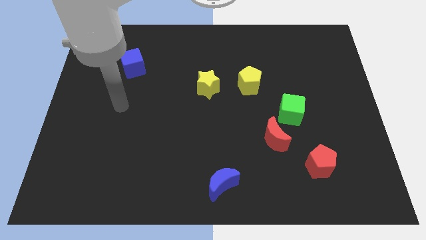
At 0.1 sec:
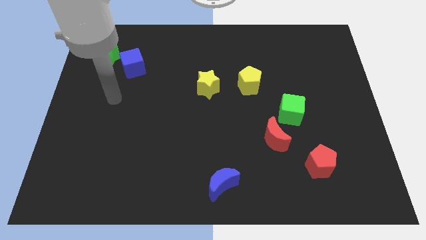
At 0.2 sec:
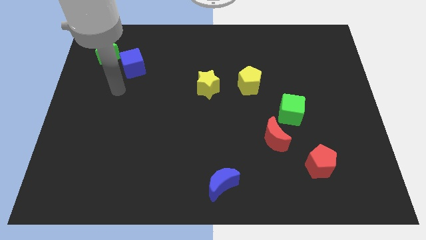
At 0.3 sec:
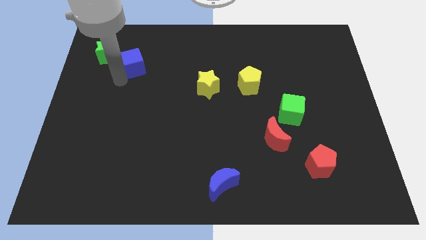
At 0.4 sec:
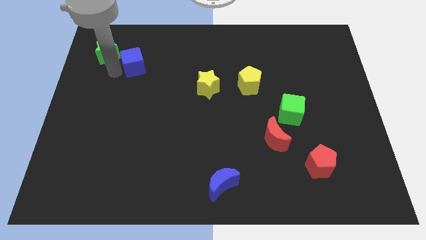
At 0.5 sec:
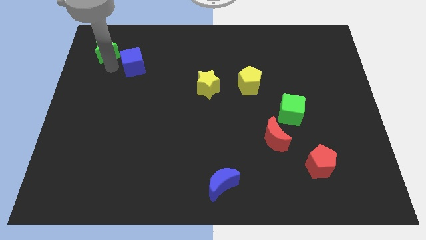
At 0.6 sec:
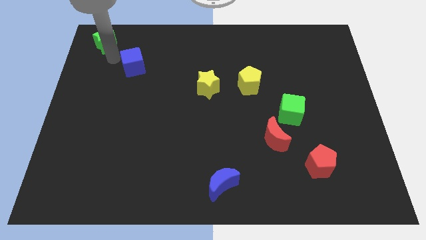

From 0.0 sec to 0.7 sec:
pull the blue cube apart from the green star

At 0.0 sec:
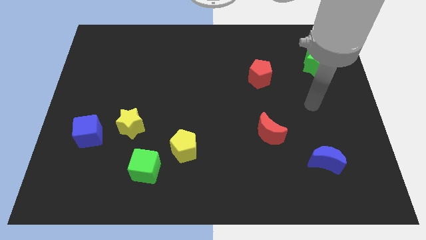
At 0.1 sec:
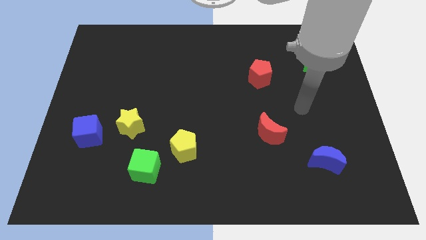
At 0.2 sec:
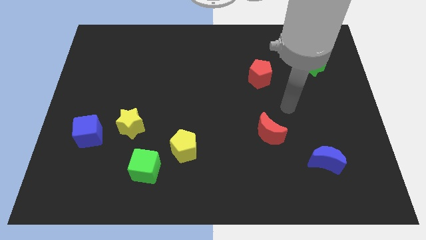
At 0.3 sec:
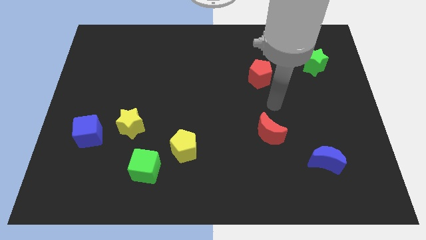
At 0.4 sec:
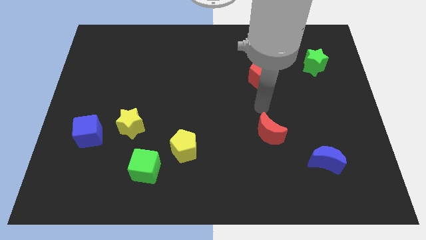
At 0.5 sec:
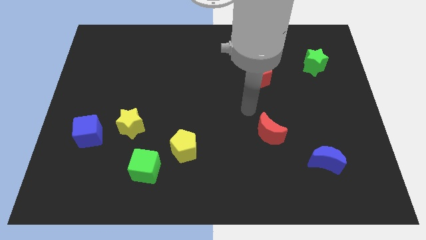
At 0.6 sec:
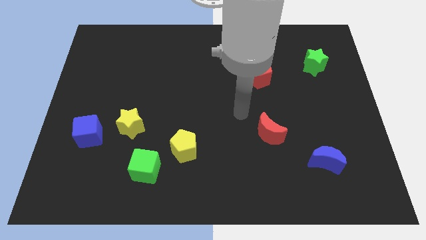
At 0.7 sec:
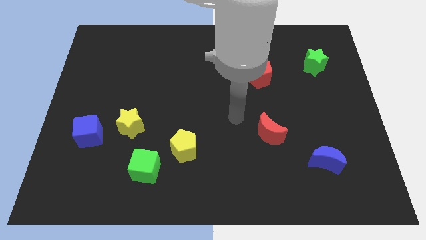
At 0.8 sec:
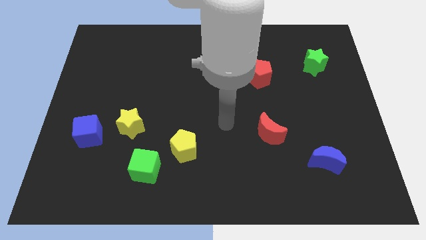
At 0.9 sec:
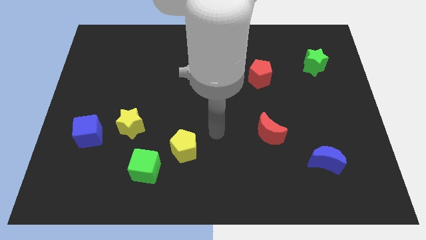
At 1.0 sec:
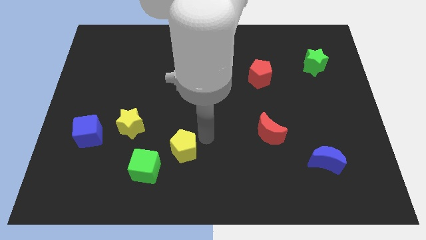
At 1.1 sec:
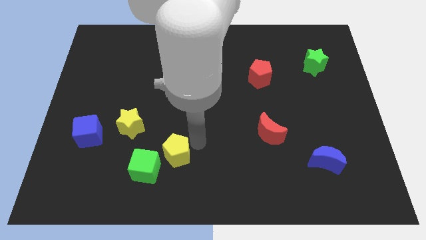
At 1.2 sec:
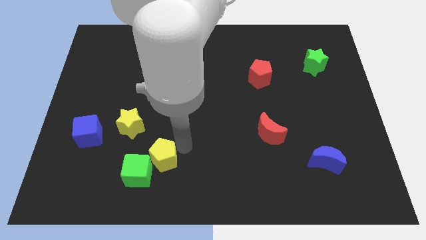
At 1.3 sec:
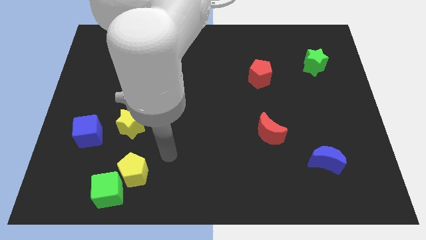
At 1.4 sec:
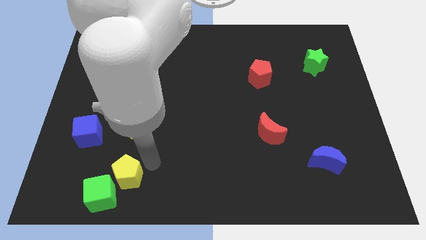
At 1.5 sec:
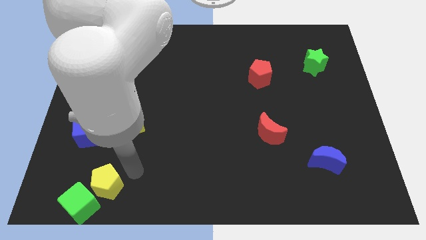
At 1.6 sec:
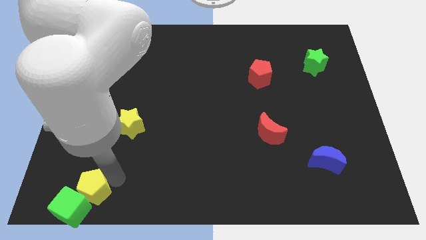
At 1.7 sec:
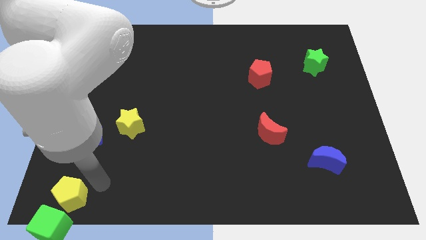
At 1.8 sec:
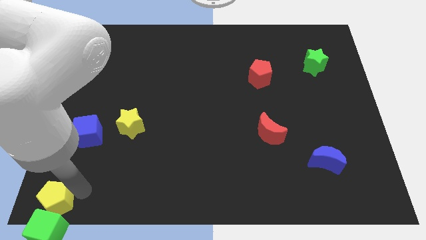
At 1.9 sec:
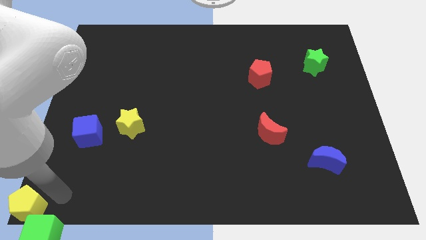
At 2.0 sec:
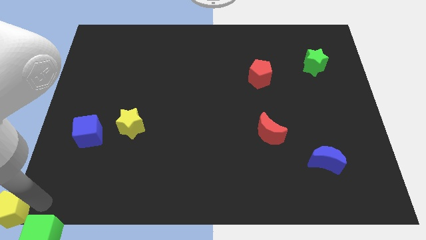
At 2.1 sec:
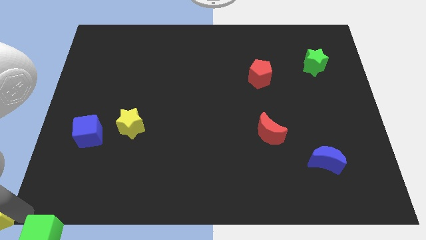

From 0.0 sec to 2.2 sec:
move the green cube away from the yellow pentagon

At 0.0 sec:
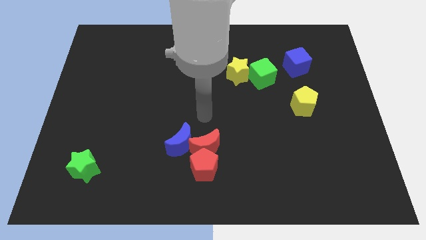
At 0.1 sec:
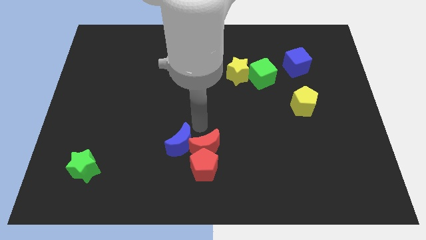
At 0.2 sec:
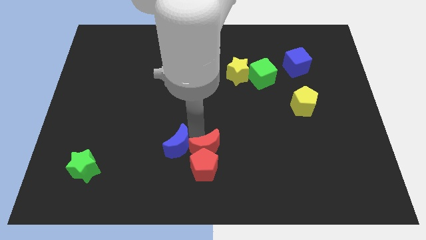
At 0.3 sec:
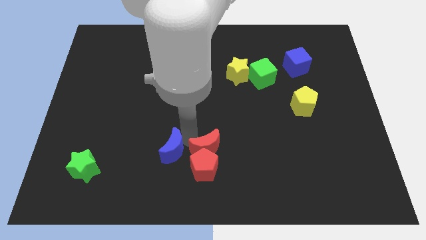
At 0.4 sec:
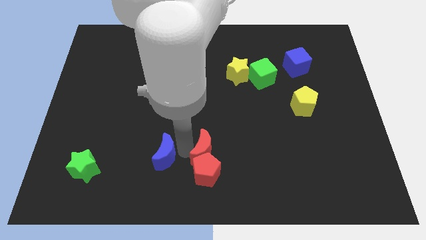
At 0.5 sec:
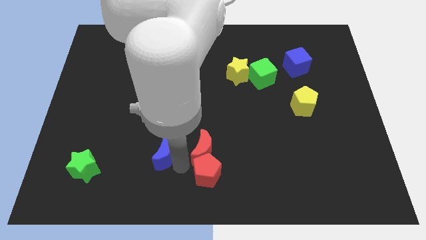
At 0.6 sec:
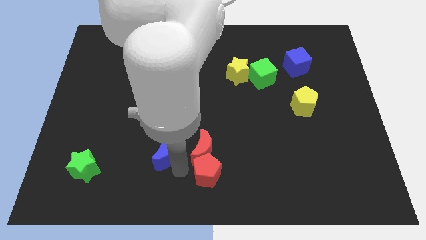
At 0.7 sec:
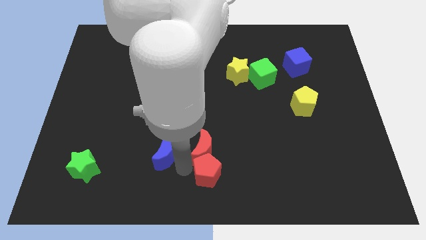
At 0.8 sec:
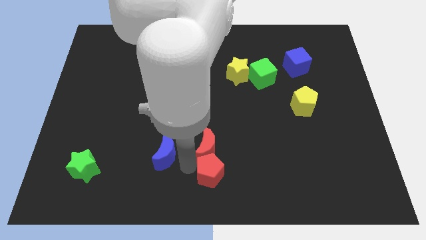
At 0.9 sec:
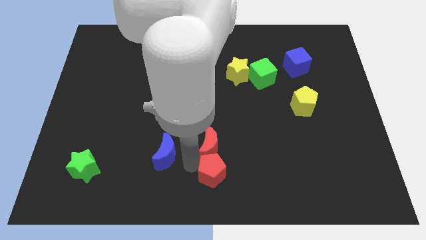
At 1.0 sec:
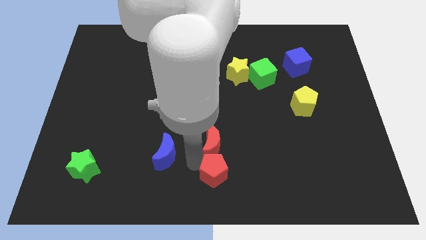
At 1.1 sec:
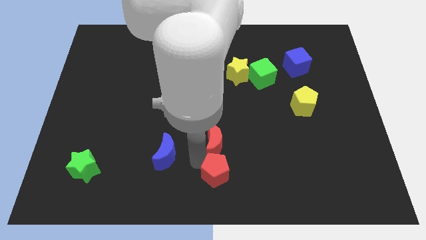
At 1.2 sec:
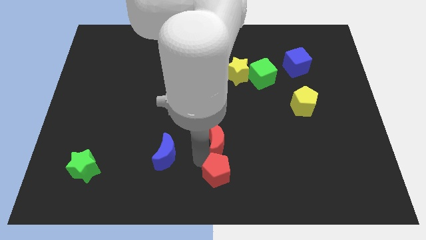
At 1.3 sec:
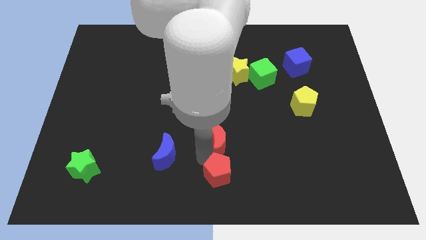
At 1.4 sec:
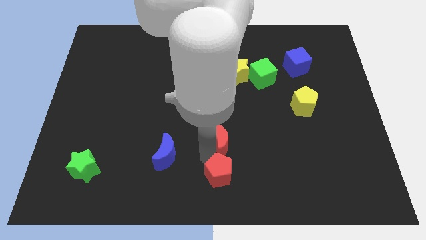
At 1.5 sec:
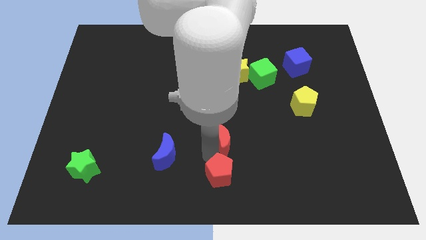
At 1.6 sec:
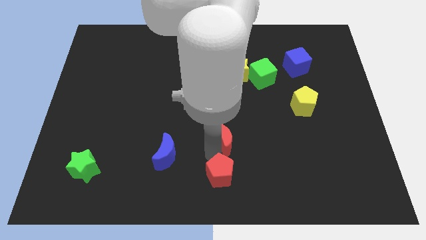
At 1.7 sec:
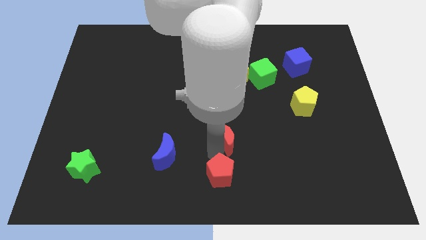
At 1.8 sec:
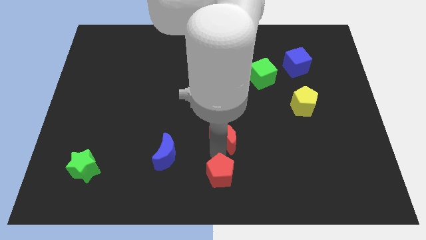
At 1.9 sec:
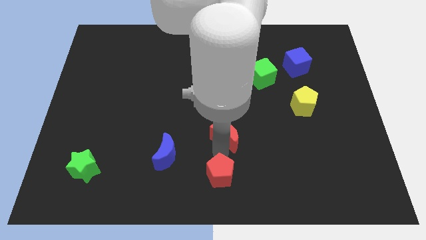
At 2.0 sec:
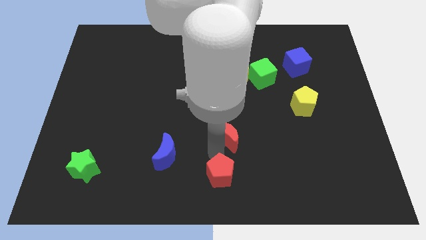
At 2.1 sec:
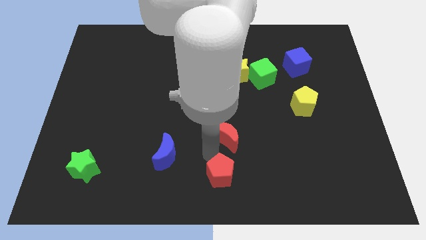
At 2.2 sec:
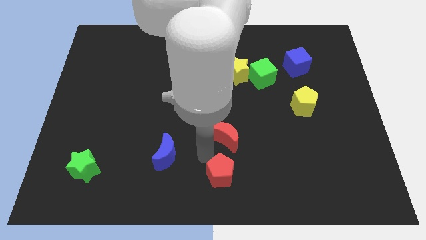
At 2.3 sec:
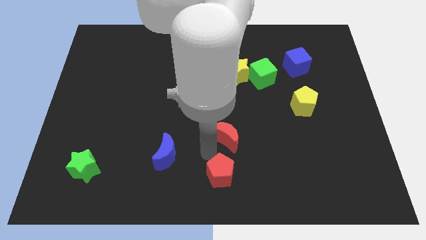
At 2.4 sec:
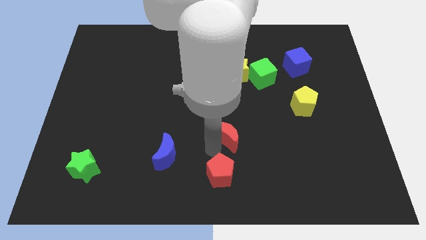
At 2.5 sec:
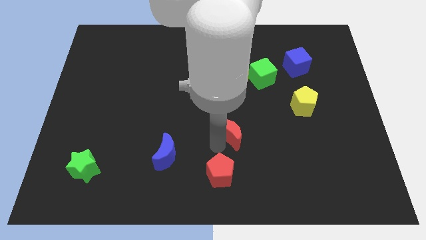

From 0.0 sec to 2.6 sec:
move the red moon away from the red pentagon and blue moon

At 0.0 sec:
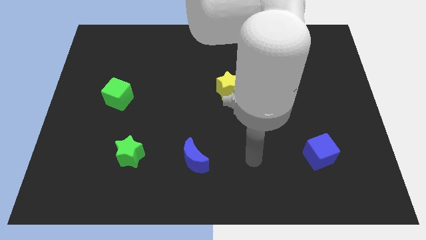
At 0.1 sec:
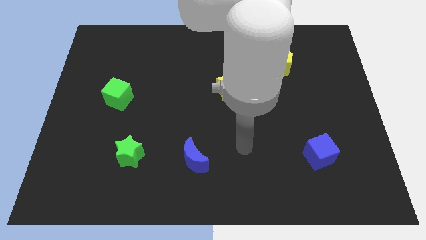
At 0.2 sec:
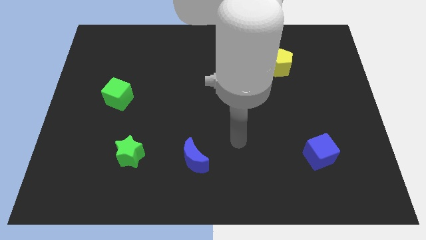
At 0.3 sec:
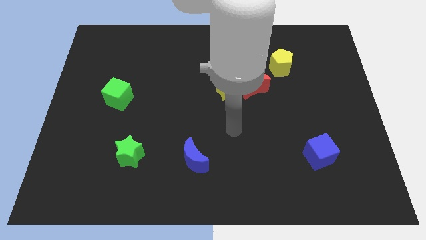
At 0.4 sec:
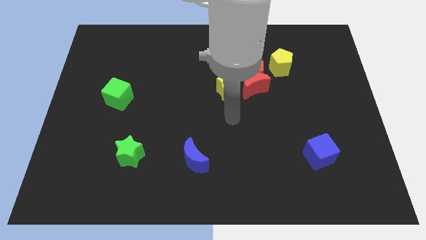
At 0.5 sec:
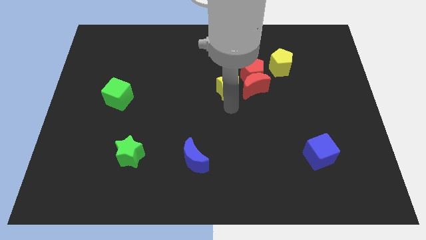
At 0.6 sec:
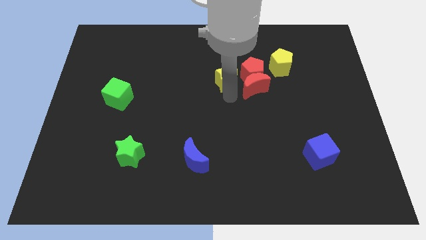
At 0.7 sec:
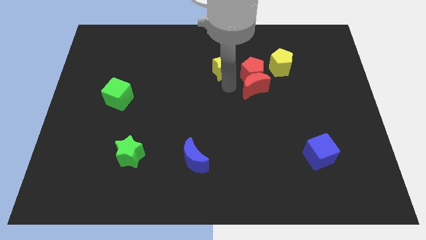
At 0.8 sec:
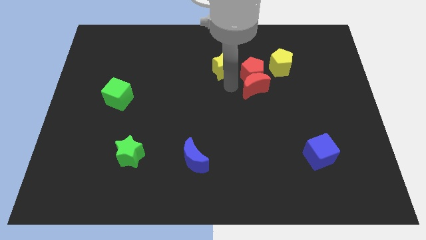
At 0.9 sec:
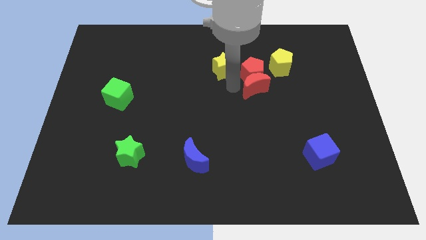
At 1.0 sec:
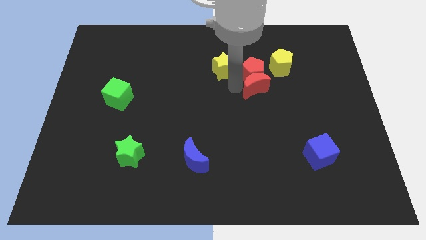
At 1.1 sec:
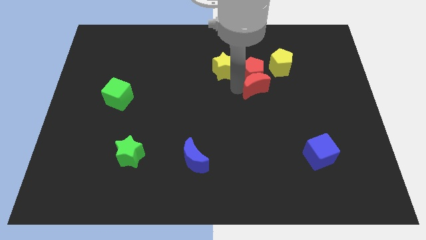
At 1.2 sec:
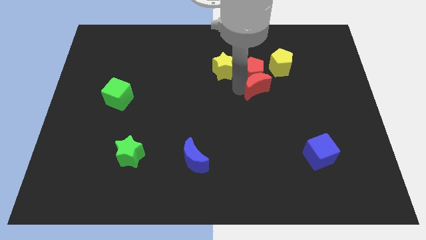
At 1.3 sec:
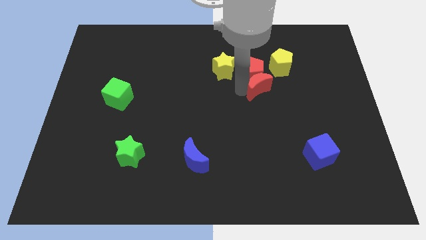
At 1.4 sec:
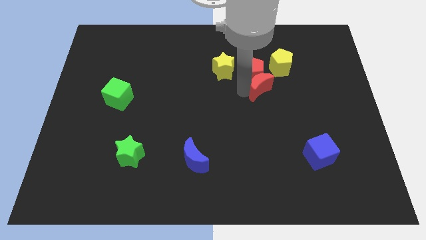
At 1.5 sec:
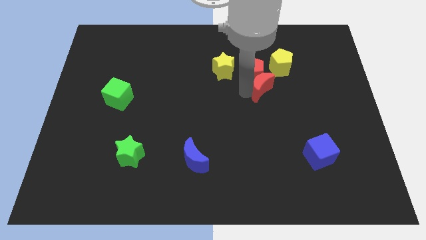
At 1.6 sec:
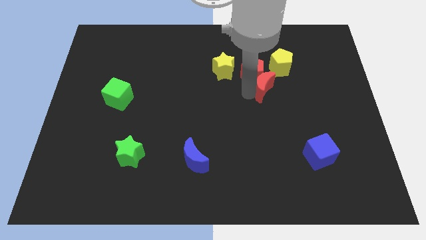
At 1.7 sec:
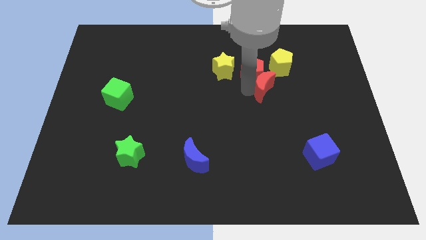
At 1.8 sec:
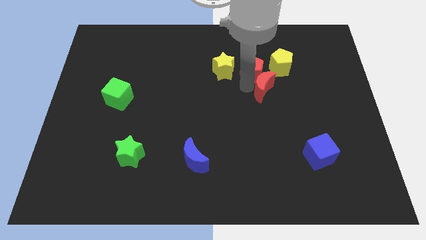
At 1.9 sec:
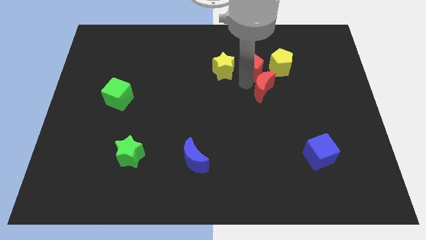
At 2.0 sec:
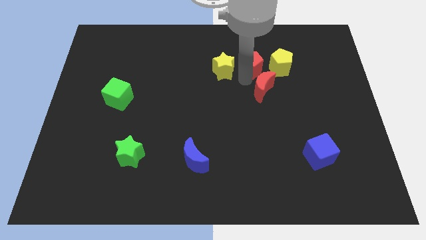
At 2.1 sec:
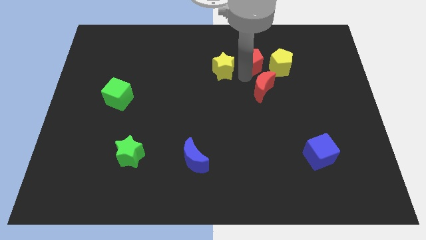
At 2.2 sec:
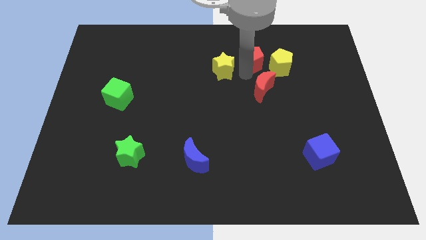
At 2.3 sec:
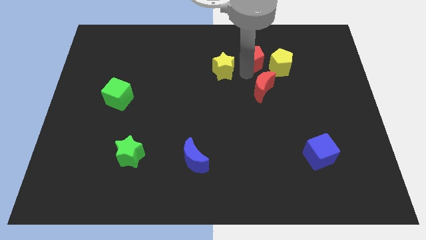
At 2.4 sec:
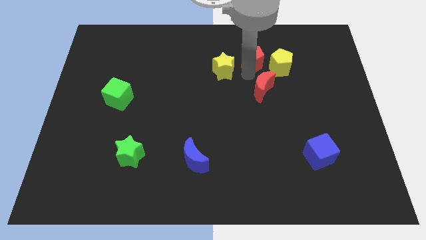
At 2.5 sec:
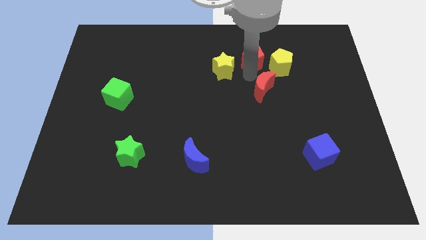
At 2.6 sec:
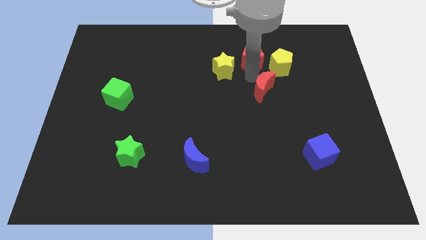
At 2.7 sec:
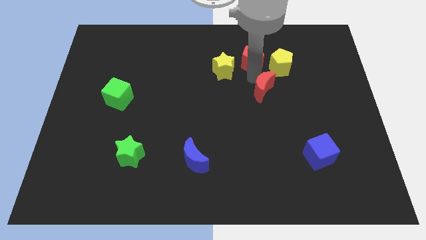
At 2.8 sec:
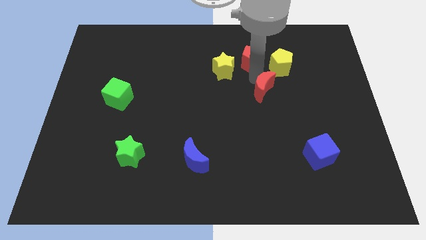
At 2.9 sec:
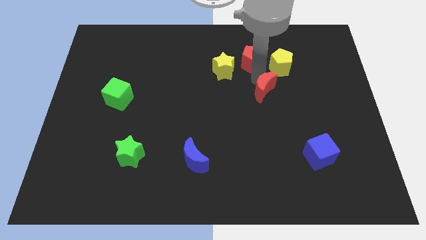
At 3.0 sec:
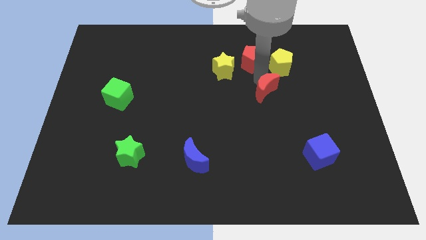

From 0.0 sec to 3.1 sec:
pull the red moon apart from the red pentagon and yellow star

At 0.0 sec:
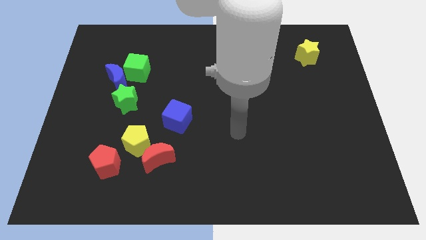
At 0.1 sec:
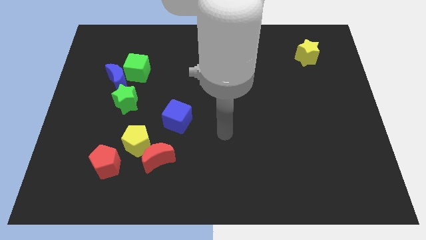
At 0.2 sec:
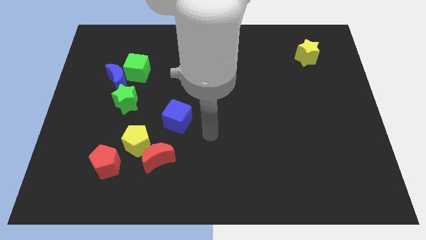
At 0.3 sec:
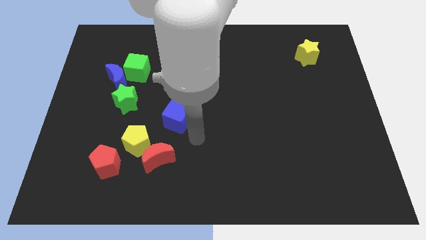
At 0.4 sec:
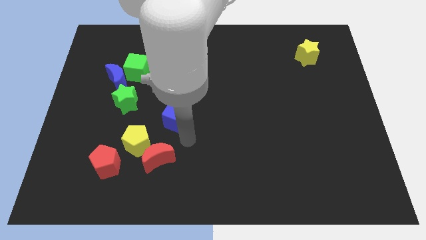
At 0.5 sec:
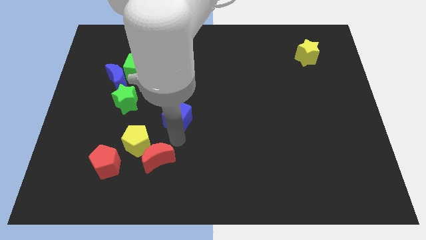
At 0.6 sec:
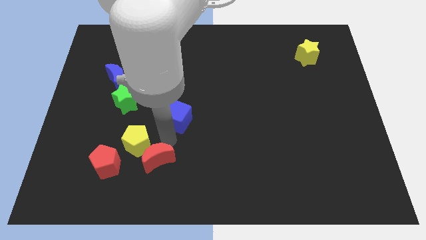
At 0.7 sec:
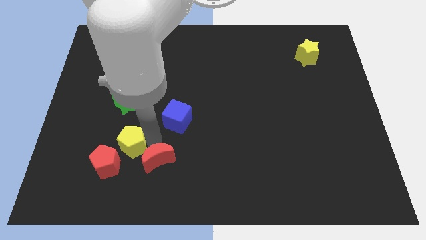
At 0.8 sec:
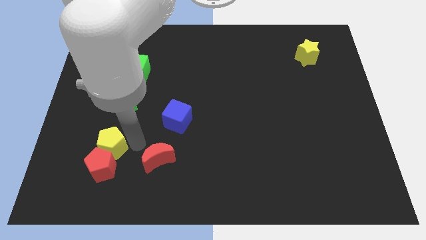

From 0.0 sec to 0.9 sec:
separate the red moon from the yellow pentagon
